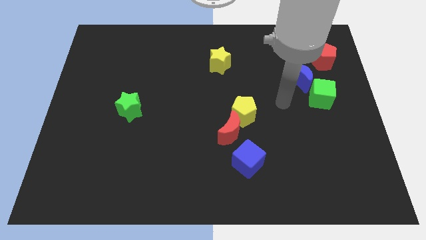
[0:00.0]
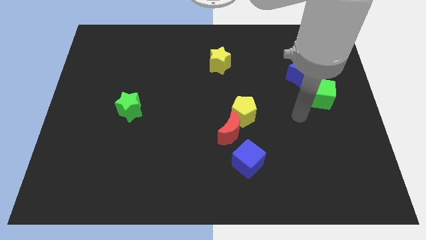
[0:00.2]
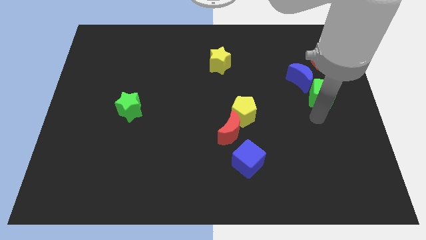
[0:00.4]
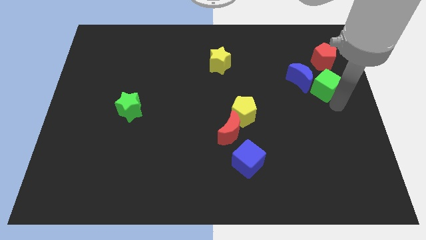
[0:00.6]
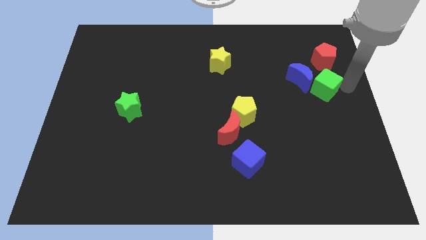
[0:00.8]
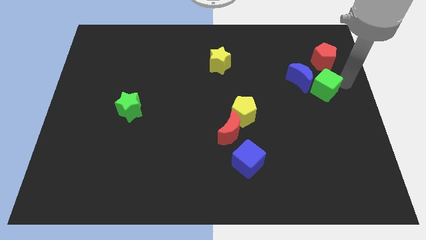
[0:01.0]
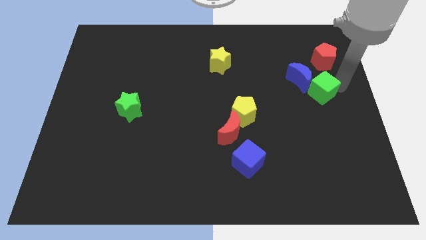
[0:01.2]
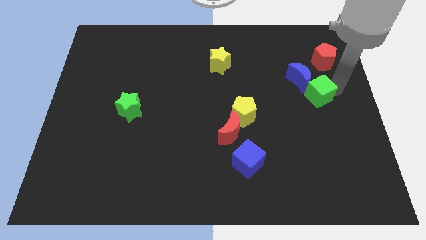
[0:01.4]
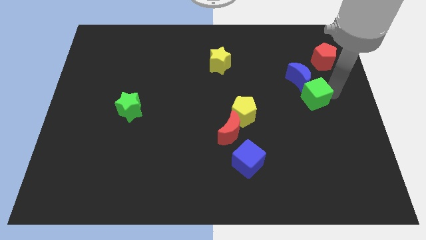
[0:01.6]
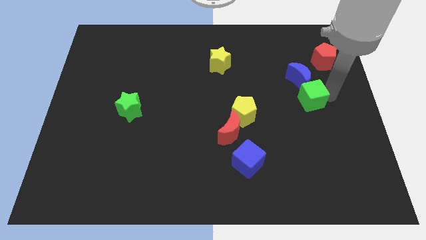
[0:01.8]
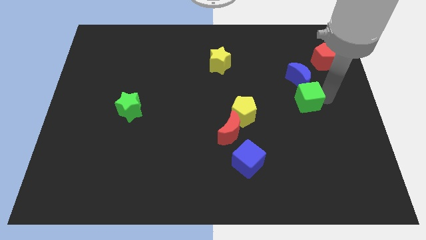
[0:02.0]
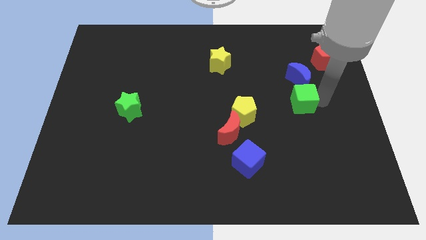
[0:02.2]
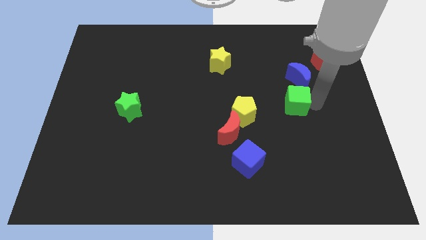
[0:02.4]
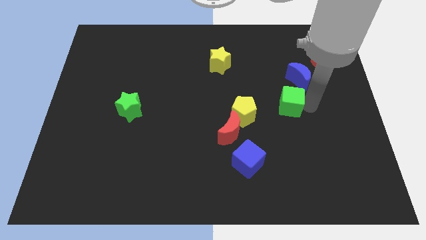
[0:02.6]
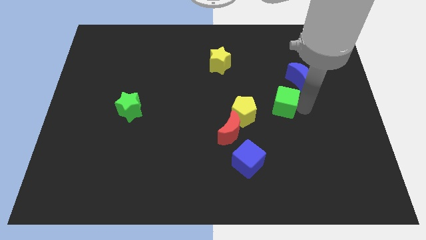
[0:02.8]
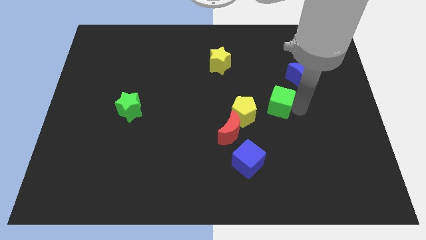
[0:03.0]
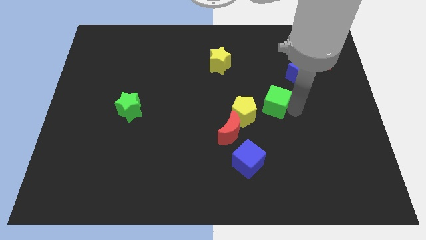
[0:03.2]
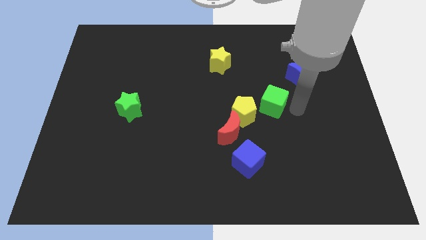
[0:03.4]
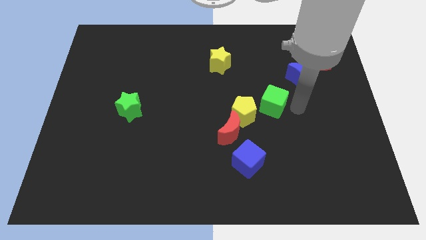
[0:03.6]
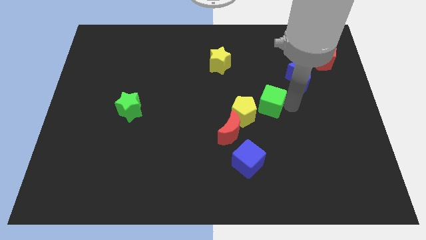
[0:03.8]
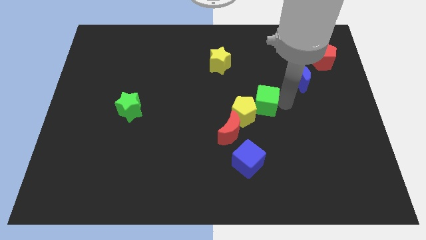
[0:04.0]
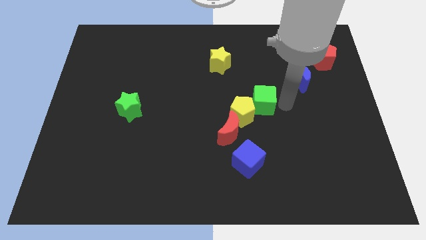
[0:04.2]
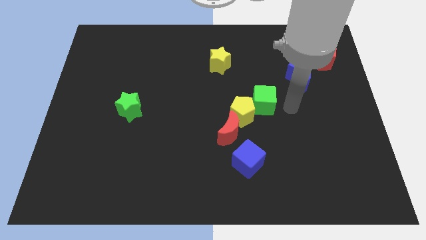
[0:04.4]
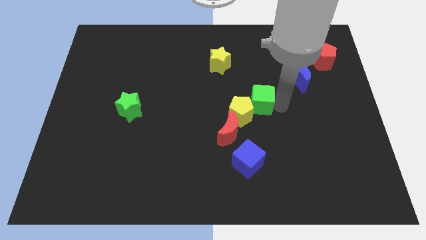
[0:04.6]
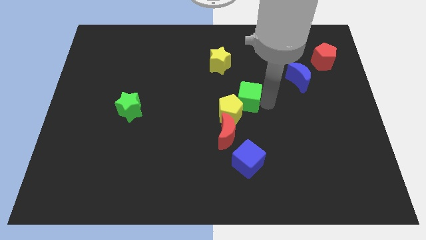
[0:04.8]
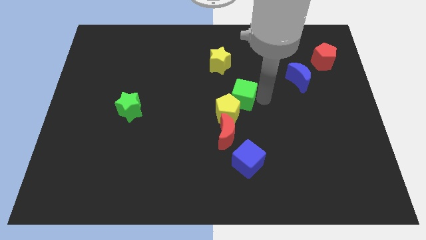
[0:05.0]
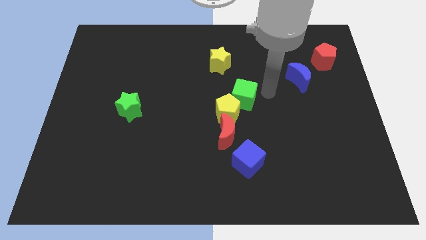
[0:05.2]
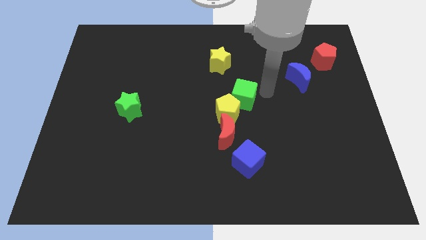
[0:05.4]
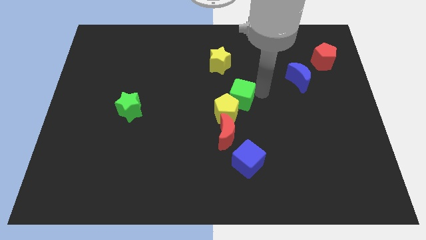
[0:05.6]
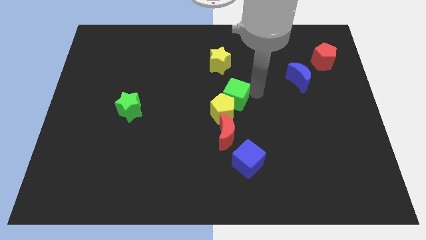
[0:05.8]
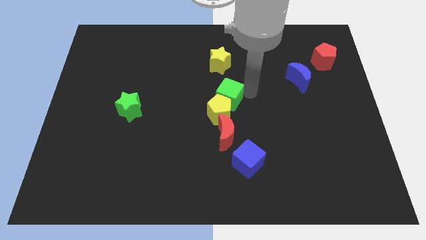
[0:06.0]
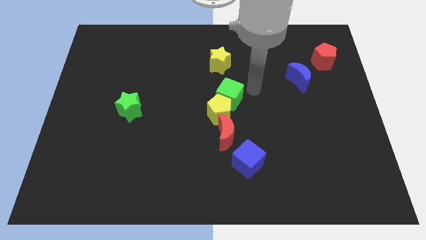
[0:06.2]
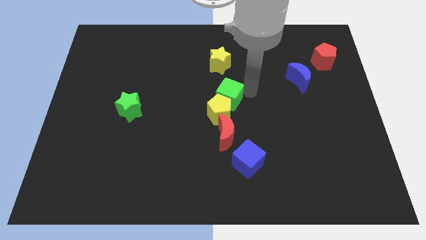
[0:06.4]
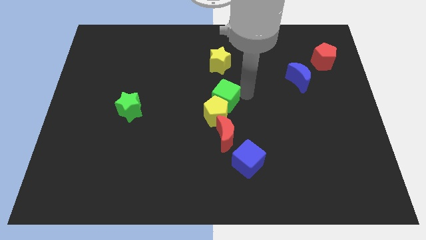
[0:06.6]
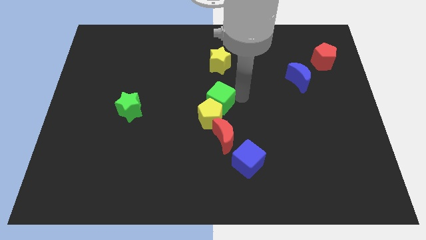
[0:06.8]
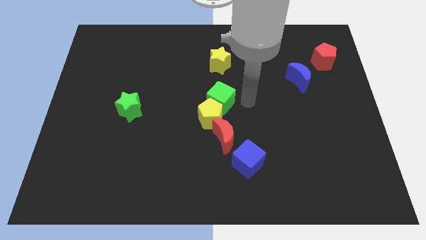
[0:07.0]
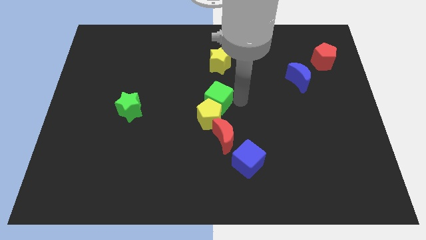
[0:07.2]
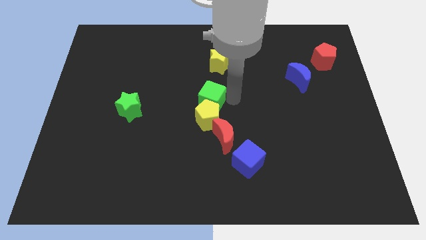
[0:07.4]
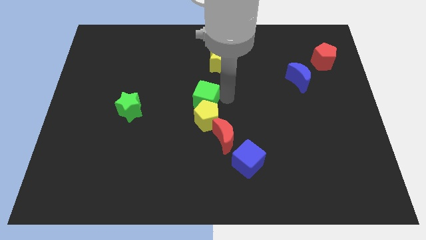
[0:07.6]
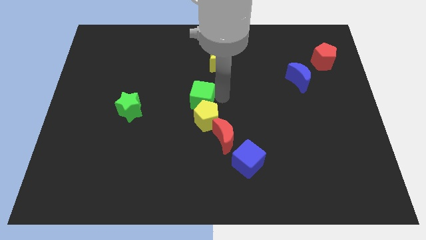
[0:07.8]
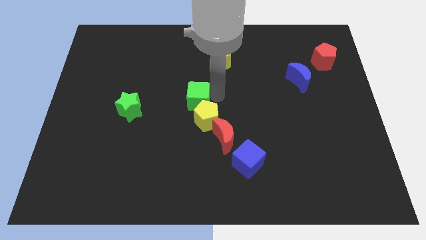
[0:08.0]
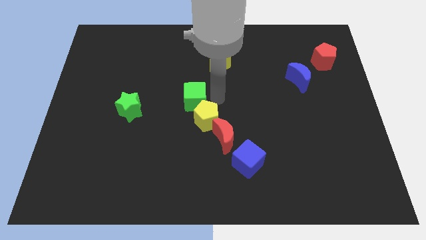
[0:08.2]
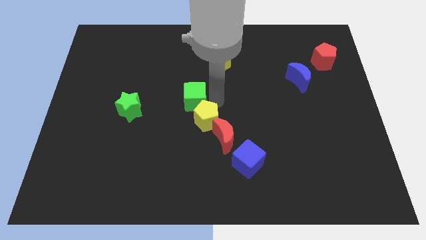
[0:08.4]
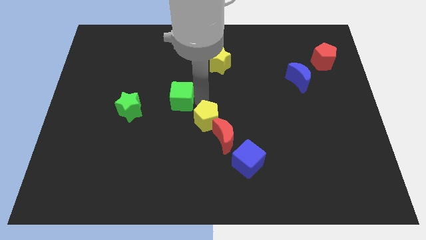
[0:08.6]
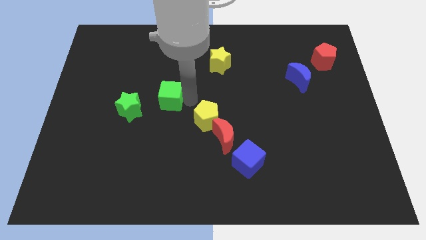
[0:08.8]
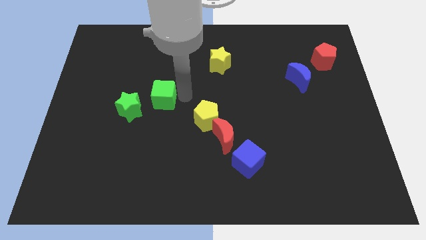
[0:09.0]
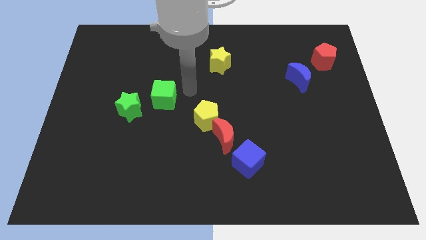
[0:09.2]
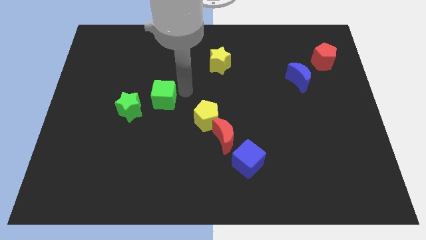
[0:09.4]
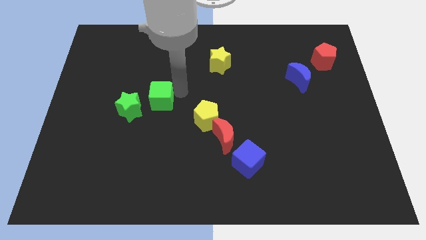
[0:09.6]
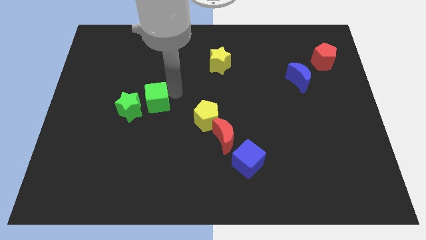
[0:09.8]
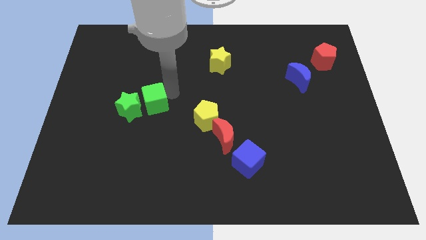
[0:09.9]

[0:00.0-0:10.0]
put the green cube next to the green star

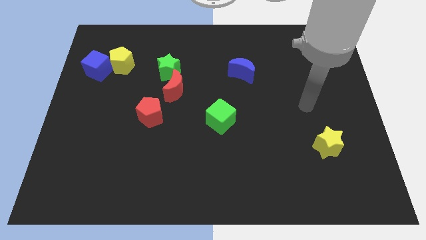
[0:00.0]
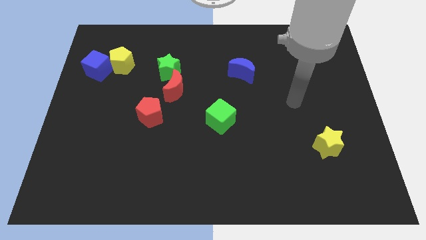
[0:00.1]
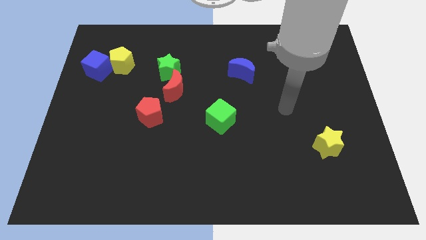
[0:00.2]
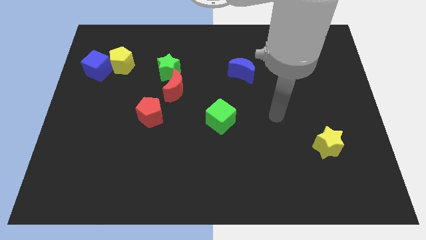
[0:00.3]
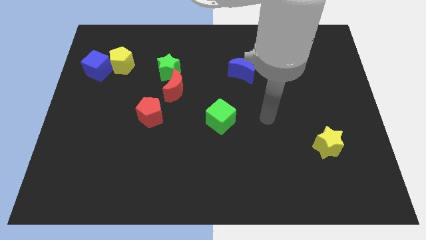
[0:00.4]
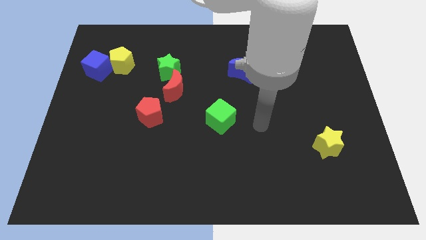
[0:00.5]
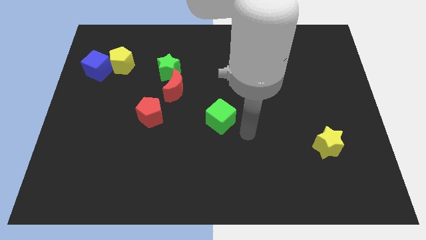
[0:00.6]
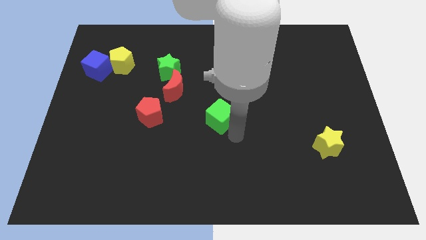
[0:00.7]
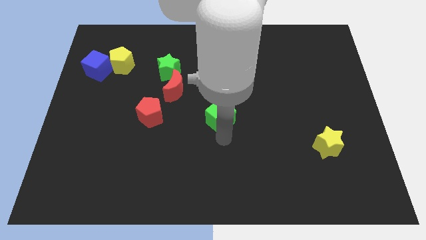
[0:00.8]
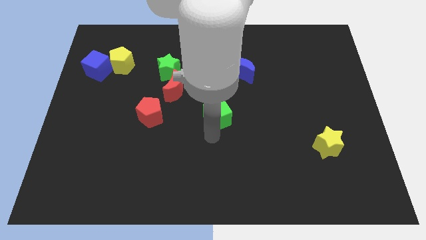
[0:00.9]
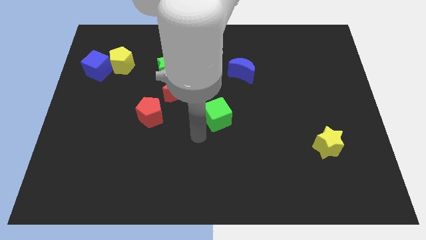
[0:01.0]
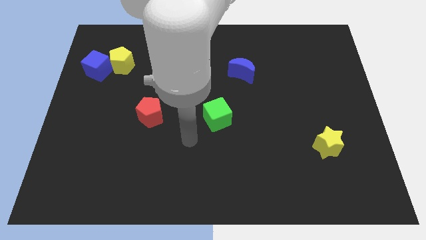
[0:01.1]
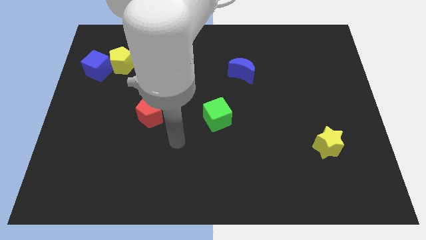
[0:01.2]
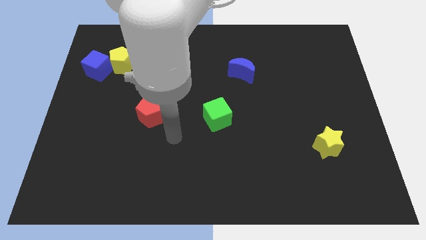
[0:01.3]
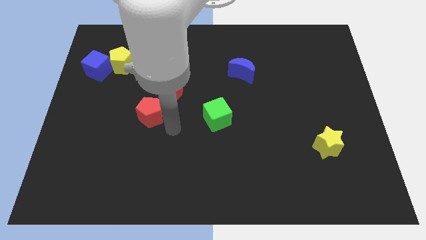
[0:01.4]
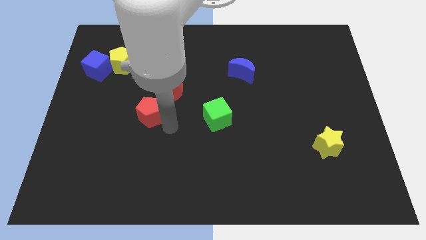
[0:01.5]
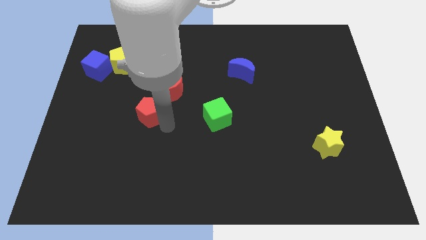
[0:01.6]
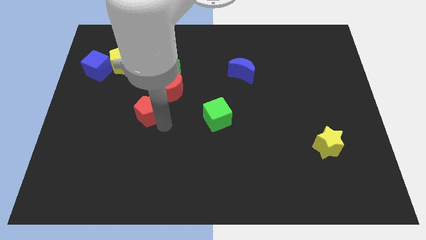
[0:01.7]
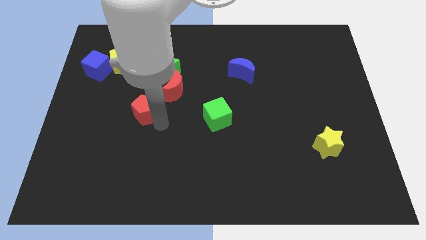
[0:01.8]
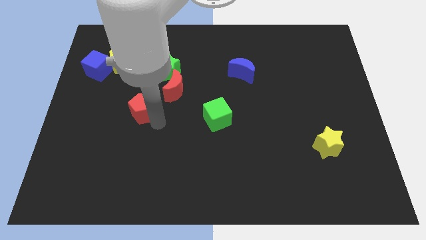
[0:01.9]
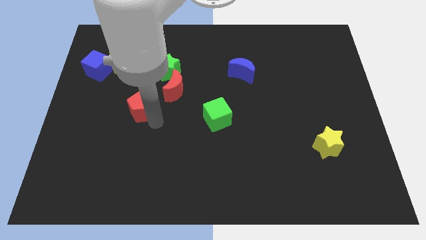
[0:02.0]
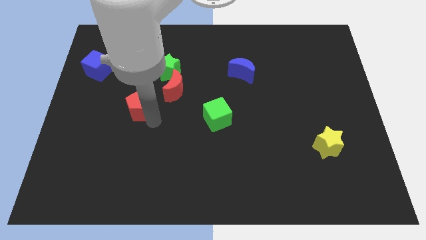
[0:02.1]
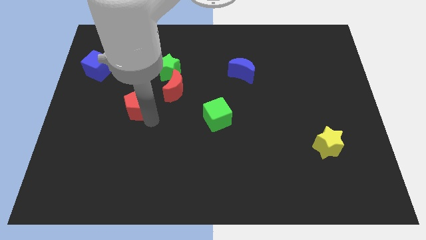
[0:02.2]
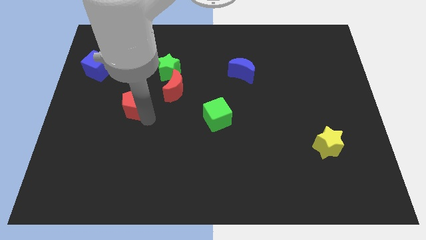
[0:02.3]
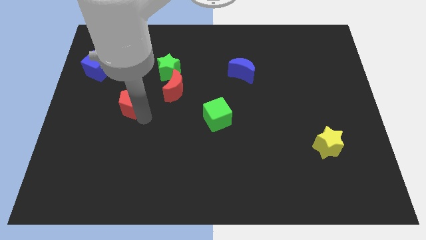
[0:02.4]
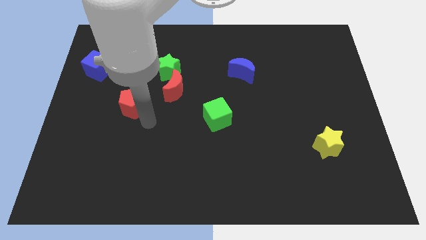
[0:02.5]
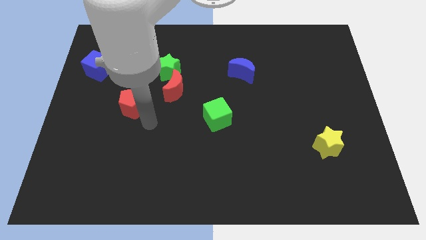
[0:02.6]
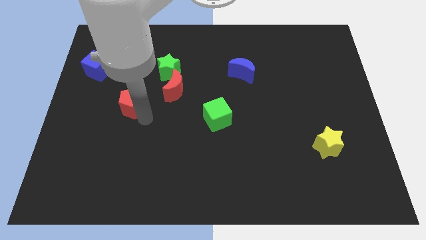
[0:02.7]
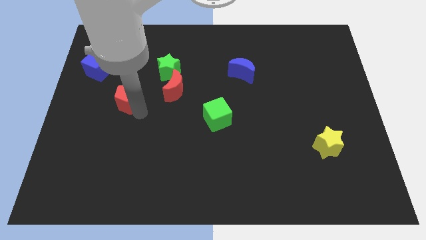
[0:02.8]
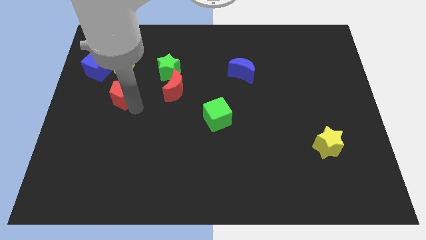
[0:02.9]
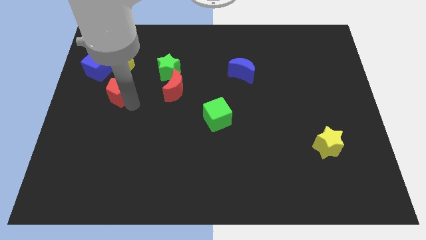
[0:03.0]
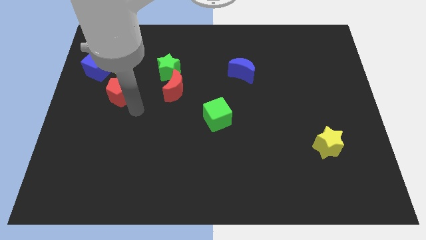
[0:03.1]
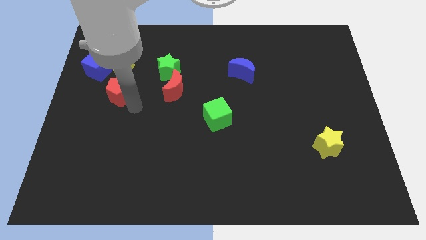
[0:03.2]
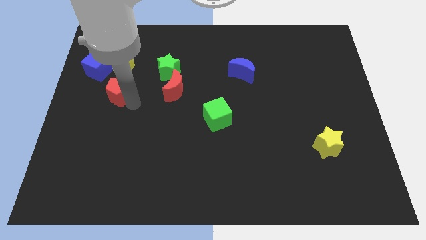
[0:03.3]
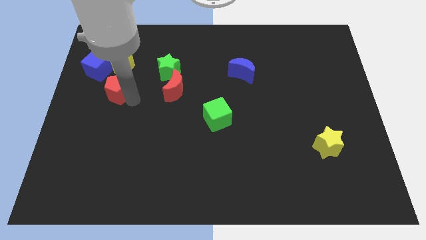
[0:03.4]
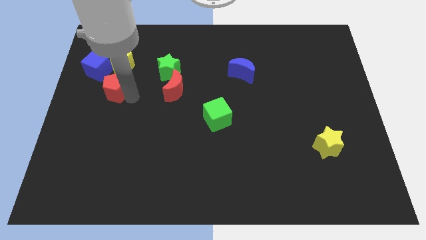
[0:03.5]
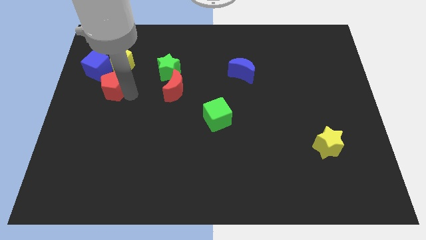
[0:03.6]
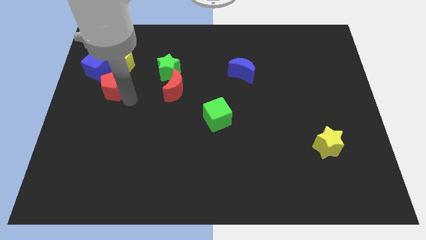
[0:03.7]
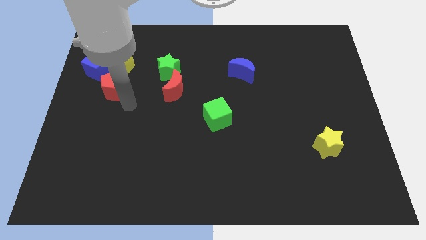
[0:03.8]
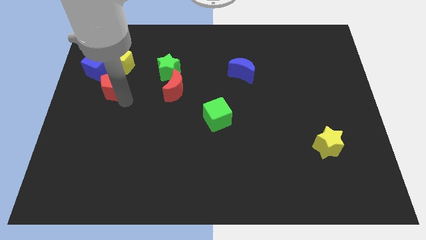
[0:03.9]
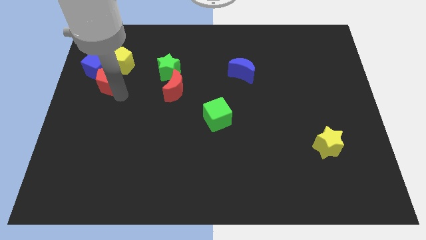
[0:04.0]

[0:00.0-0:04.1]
slide the red pentagon close to the blue cube
